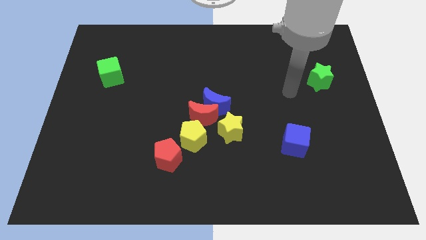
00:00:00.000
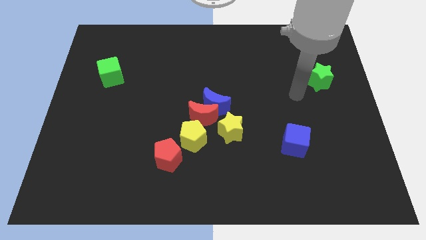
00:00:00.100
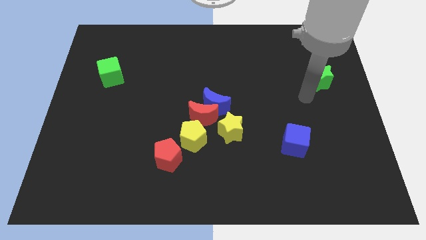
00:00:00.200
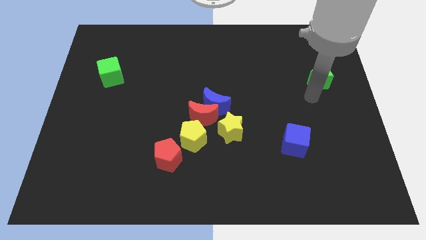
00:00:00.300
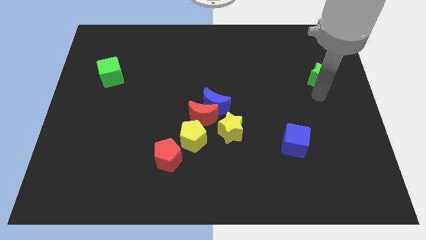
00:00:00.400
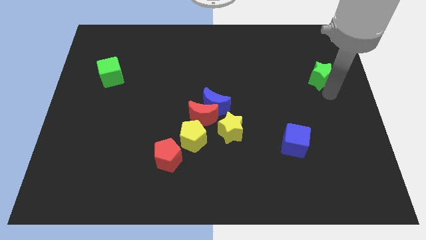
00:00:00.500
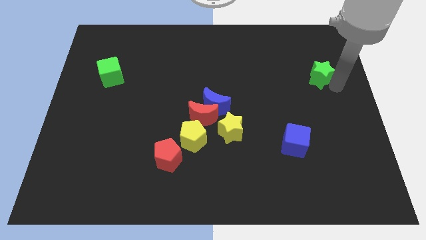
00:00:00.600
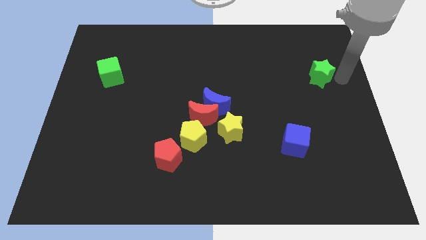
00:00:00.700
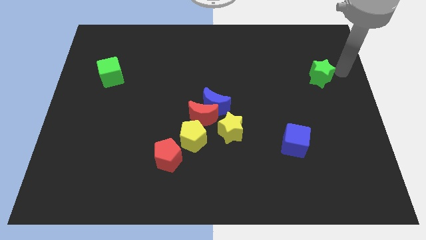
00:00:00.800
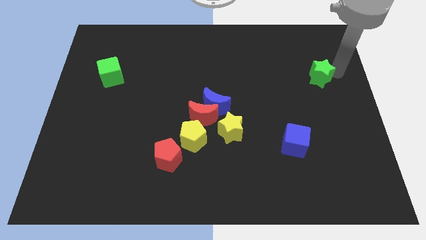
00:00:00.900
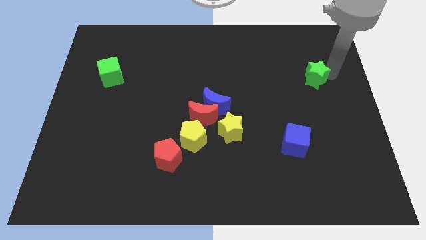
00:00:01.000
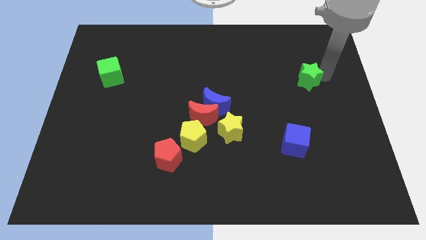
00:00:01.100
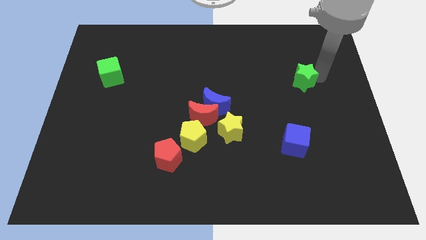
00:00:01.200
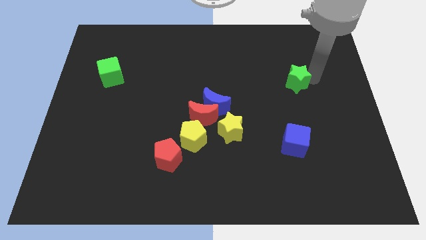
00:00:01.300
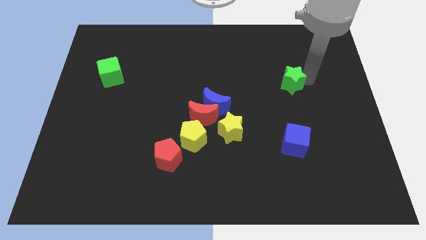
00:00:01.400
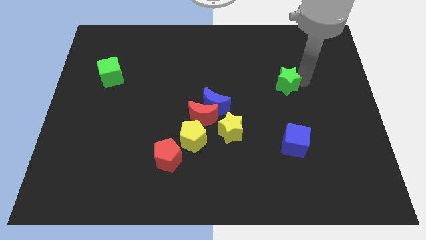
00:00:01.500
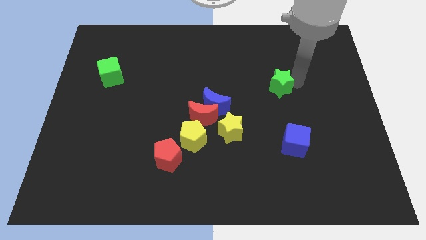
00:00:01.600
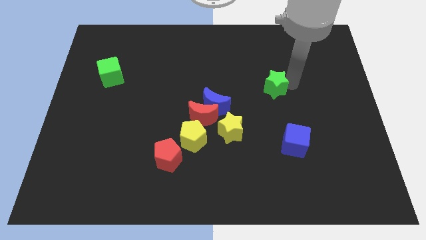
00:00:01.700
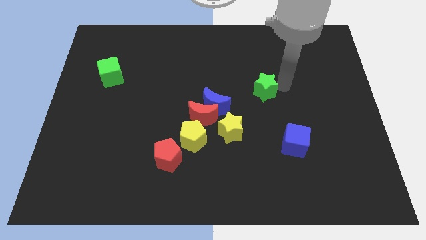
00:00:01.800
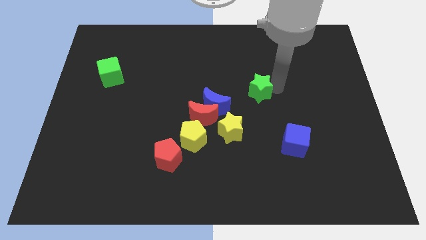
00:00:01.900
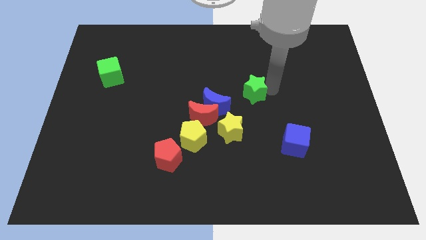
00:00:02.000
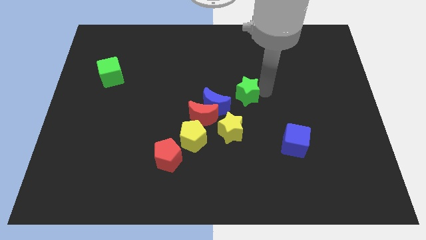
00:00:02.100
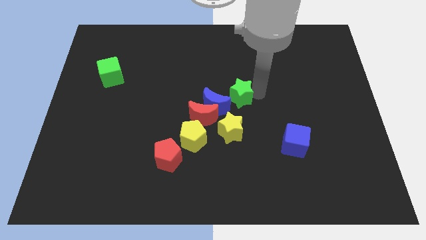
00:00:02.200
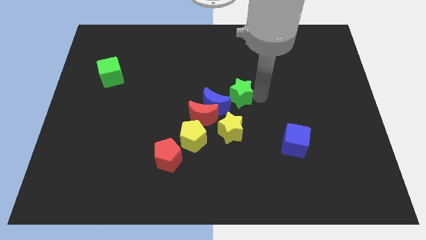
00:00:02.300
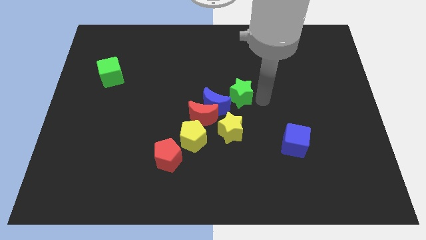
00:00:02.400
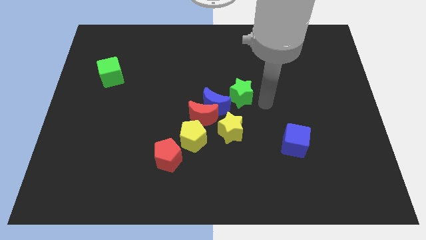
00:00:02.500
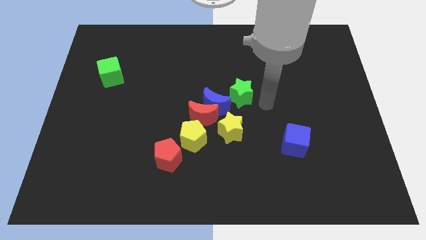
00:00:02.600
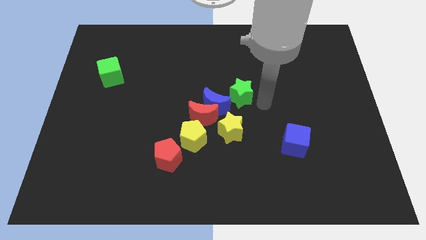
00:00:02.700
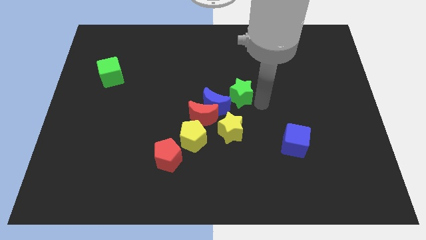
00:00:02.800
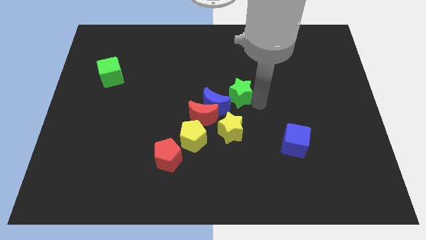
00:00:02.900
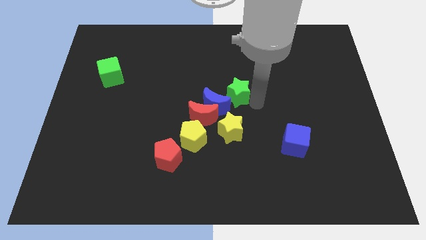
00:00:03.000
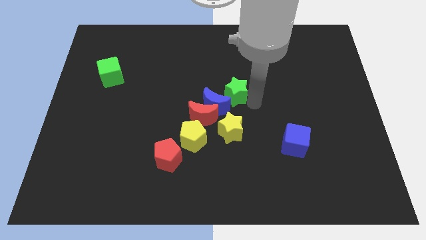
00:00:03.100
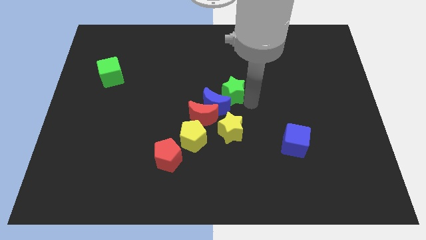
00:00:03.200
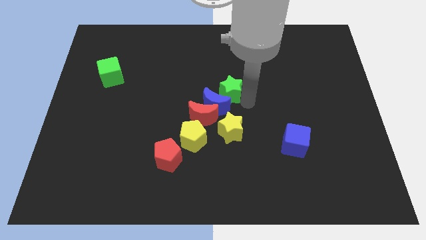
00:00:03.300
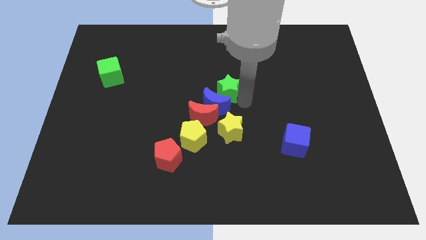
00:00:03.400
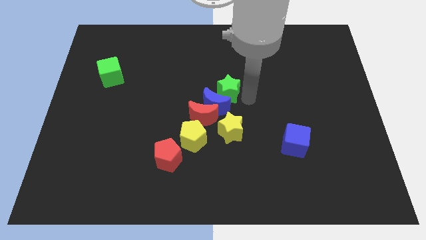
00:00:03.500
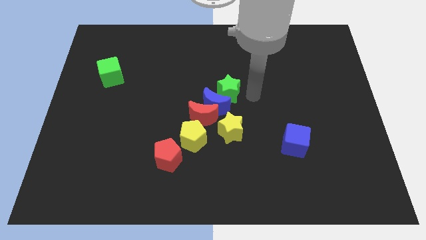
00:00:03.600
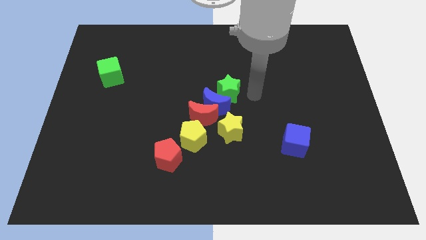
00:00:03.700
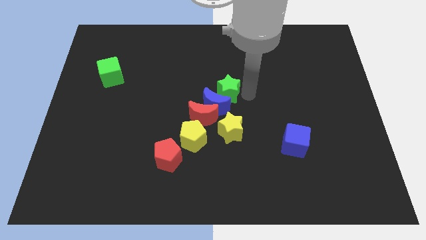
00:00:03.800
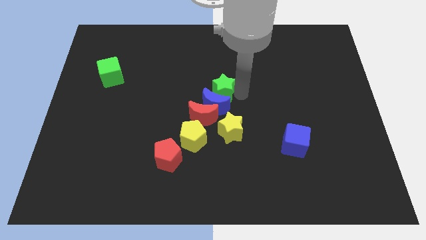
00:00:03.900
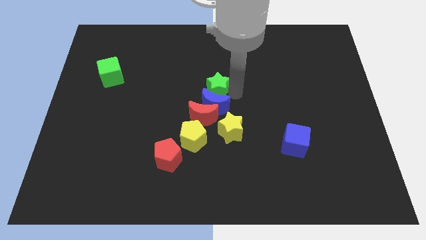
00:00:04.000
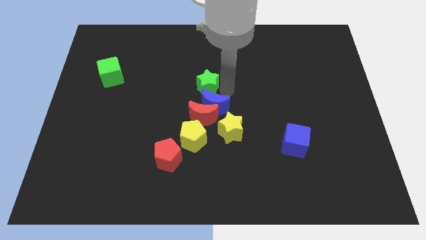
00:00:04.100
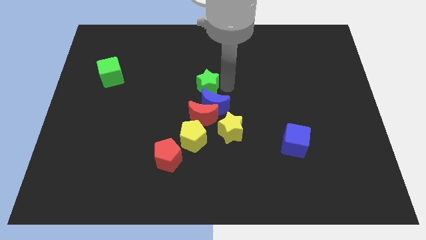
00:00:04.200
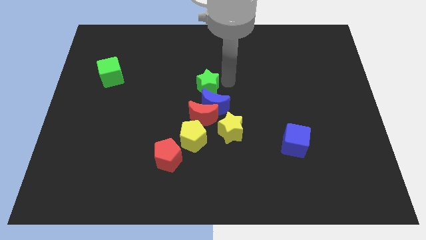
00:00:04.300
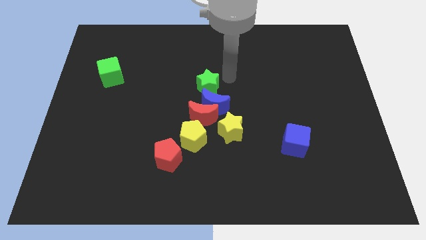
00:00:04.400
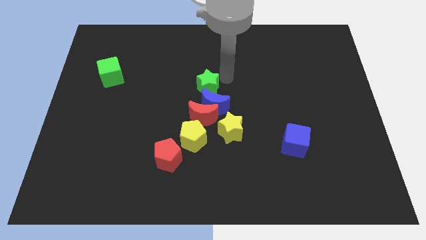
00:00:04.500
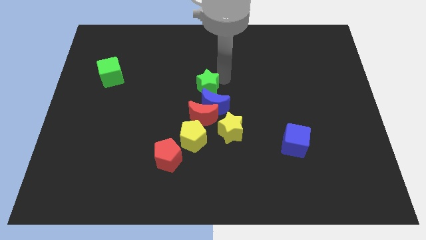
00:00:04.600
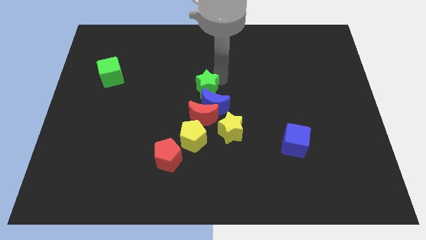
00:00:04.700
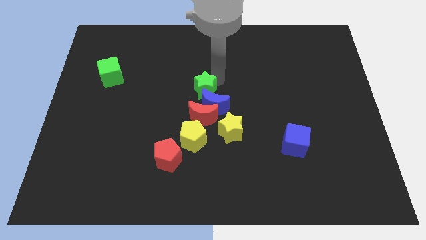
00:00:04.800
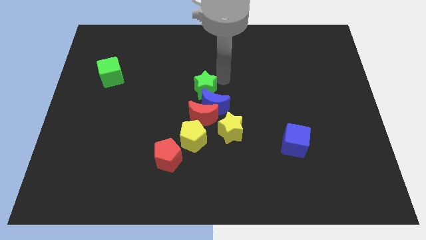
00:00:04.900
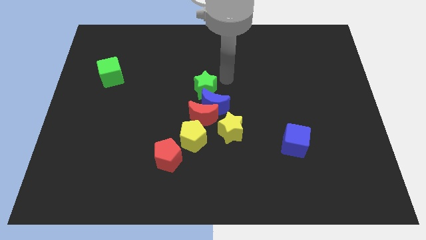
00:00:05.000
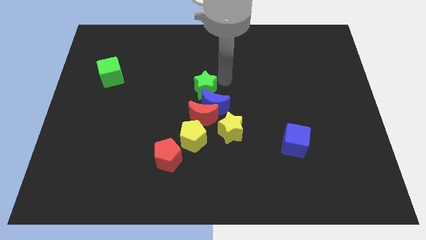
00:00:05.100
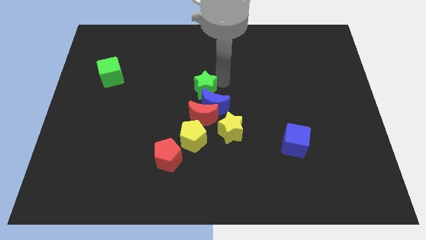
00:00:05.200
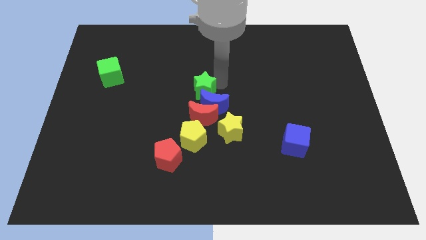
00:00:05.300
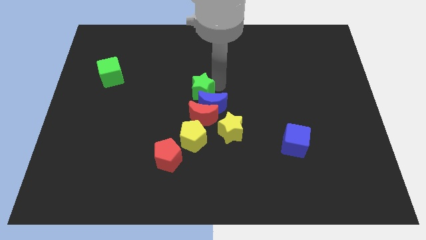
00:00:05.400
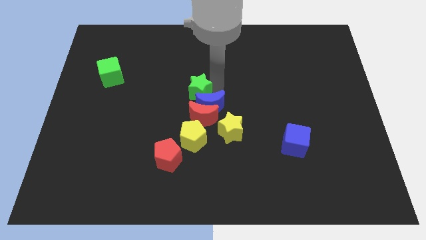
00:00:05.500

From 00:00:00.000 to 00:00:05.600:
put the green star diagonally up and to the left of the red moon

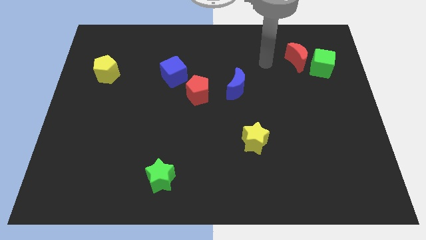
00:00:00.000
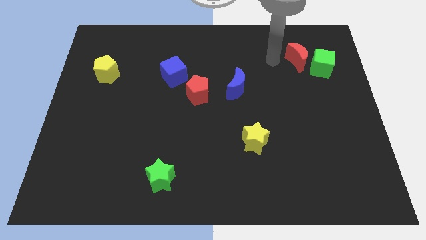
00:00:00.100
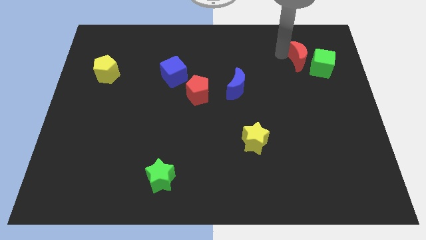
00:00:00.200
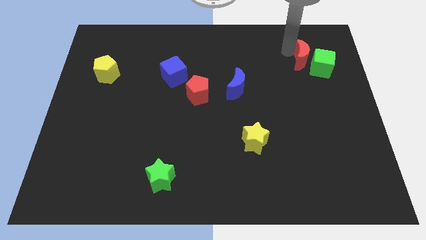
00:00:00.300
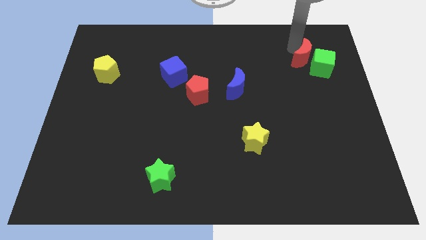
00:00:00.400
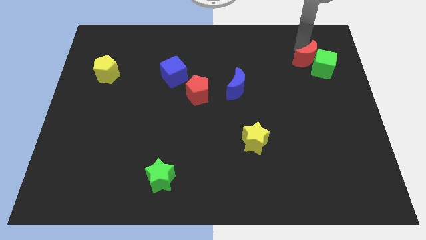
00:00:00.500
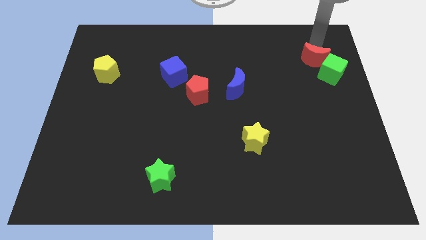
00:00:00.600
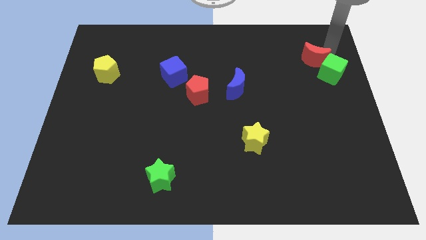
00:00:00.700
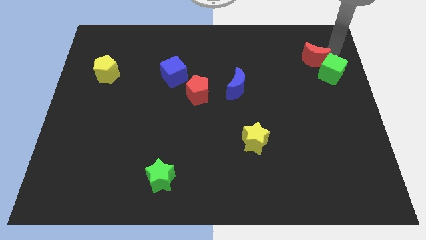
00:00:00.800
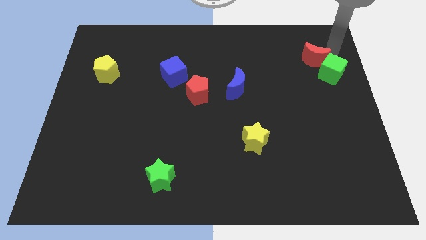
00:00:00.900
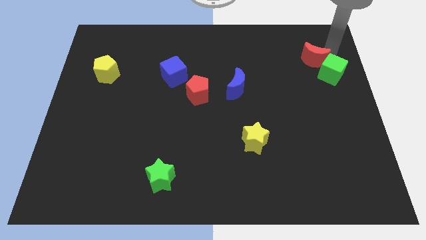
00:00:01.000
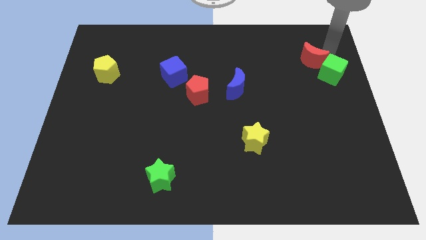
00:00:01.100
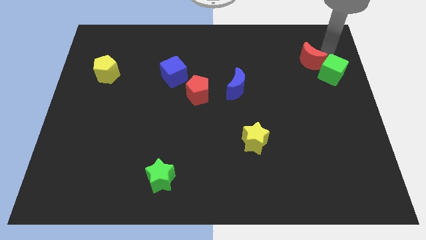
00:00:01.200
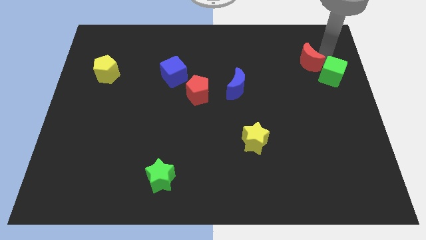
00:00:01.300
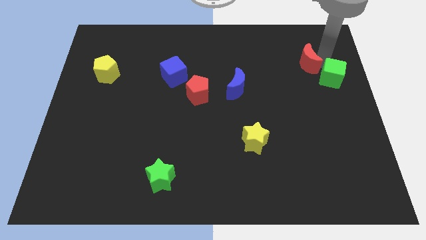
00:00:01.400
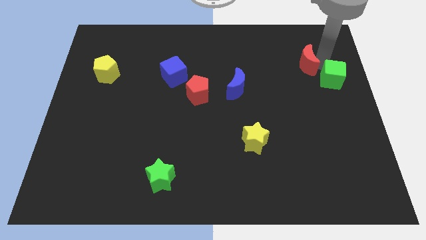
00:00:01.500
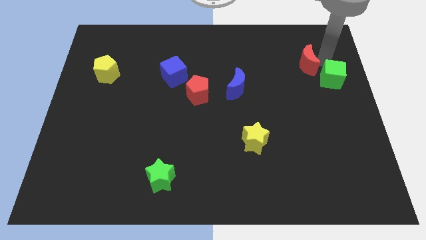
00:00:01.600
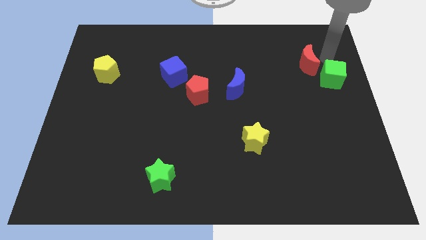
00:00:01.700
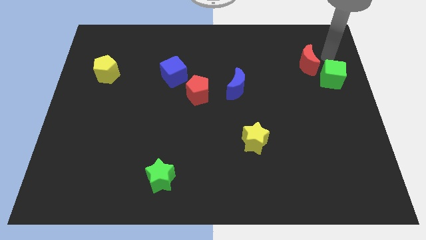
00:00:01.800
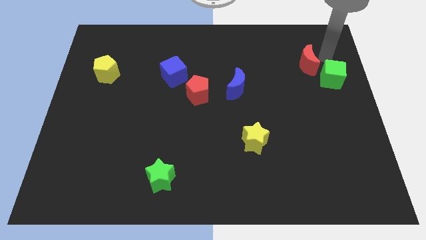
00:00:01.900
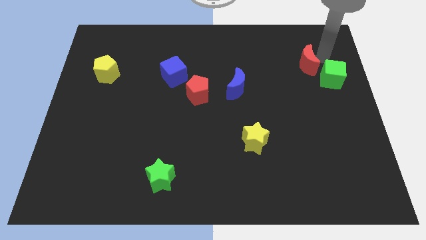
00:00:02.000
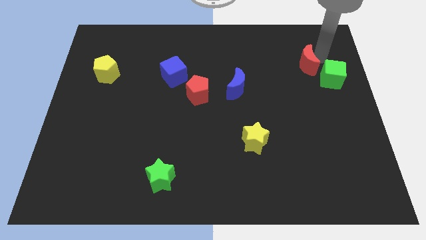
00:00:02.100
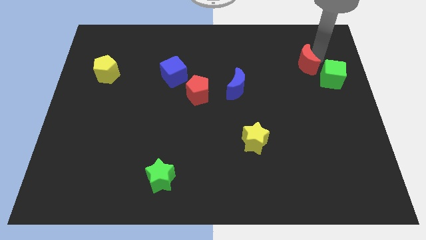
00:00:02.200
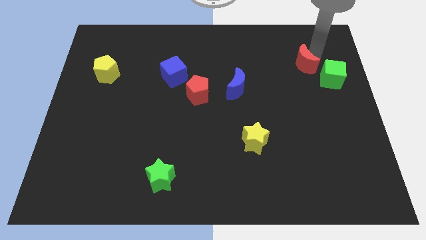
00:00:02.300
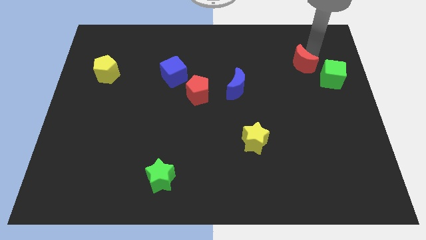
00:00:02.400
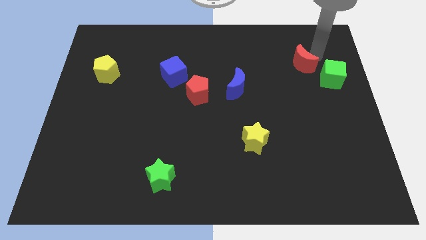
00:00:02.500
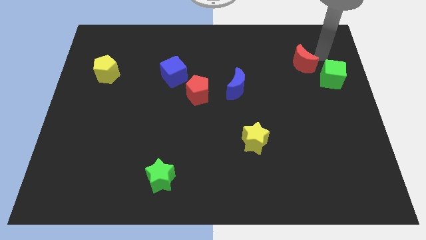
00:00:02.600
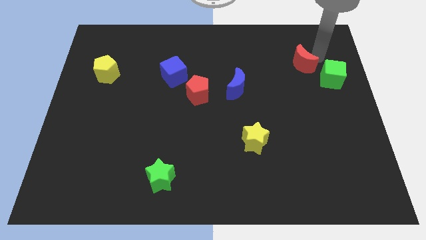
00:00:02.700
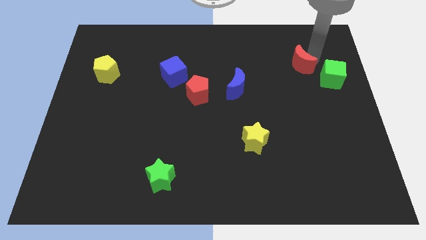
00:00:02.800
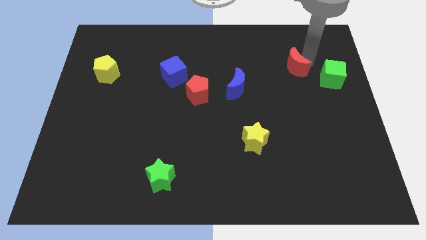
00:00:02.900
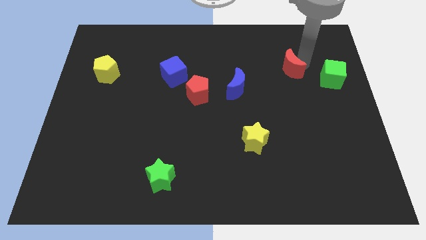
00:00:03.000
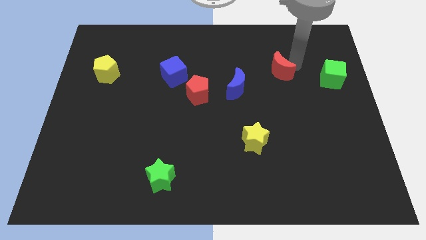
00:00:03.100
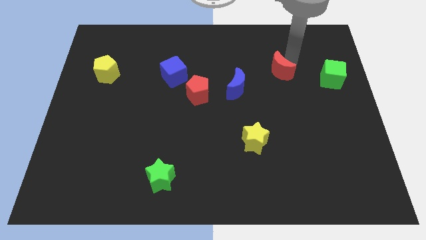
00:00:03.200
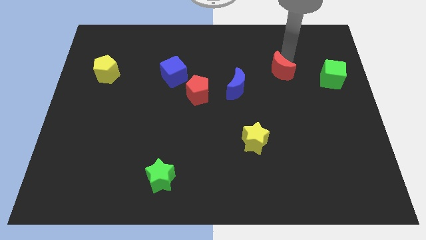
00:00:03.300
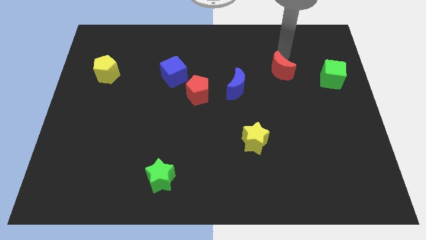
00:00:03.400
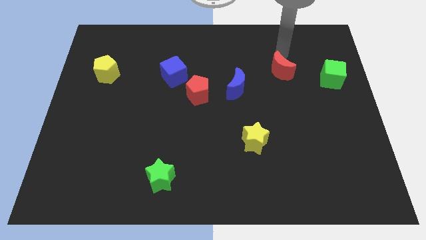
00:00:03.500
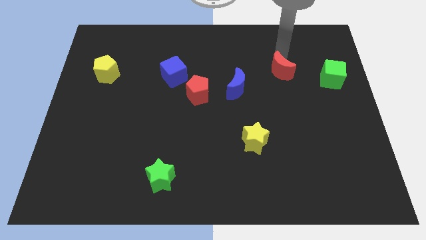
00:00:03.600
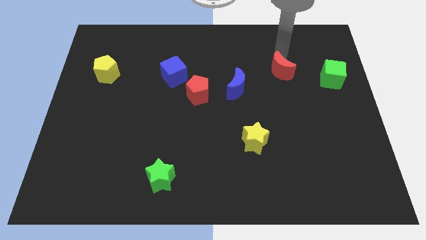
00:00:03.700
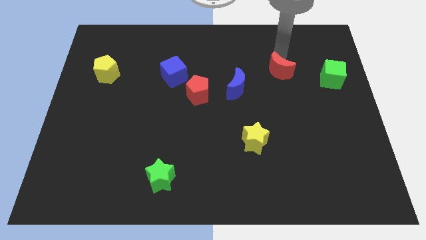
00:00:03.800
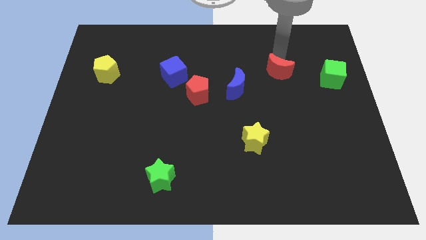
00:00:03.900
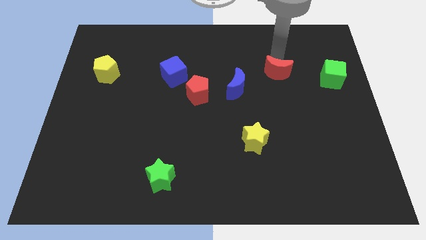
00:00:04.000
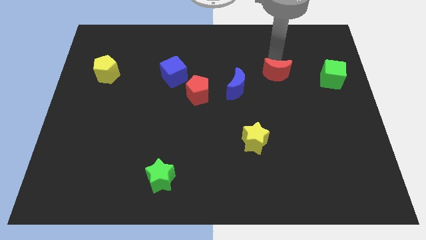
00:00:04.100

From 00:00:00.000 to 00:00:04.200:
move the red moon right of the blue moon
